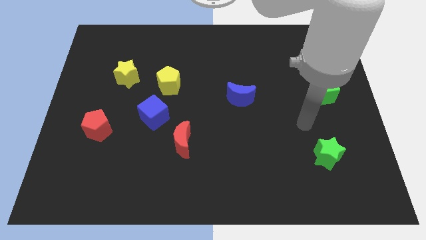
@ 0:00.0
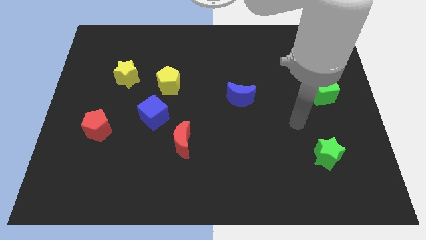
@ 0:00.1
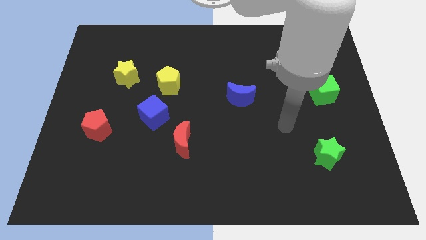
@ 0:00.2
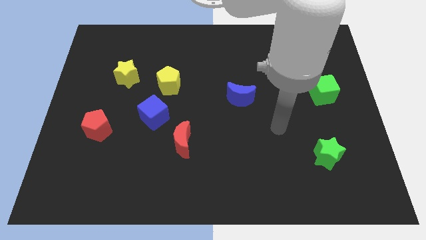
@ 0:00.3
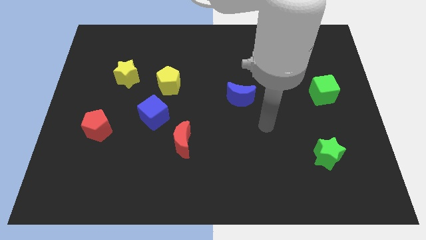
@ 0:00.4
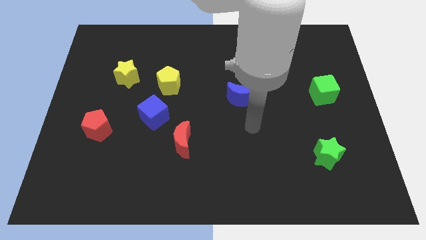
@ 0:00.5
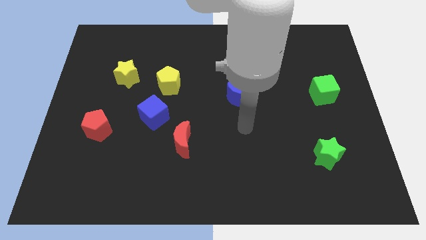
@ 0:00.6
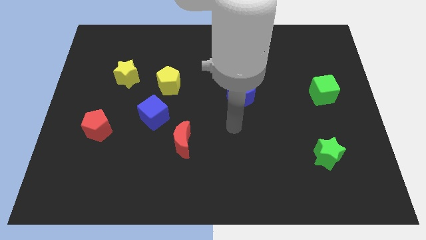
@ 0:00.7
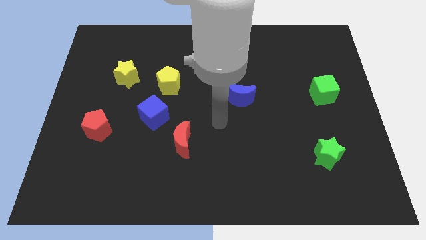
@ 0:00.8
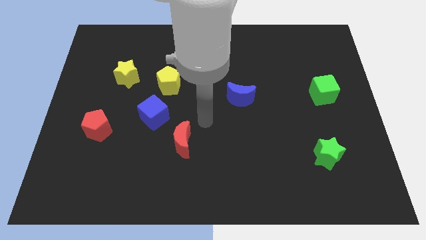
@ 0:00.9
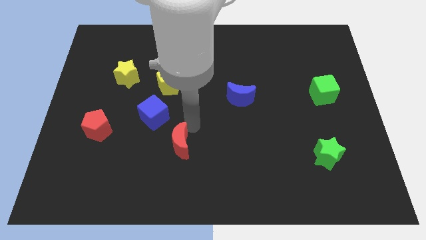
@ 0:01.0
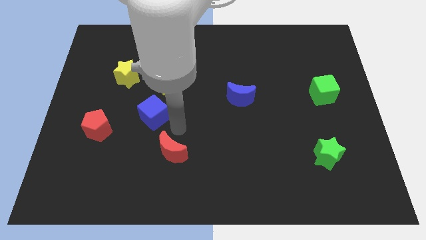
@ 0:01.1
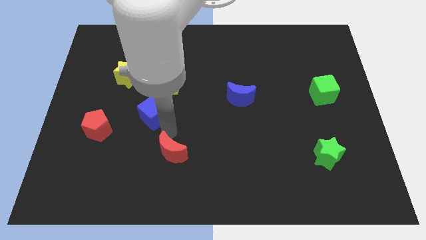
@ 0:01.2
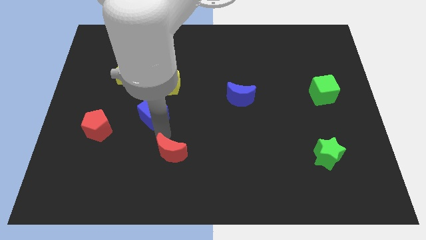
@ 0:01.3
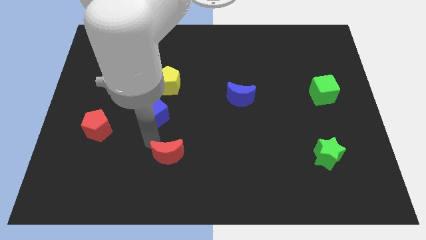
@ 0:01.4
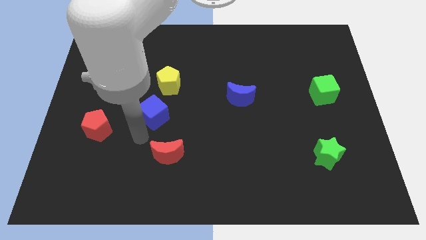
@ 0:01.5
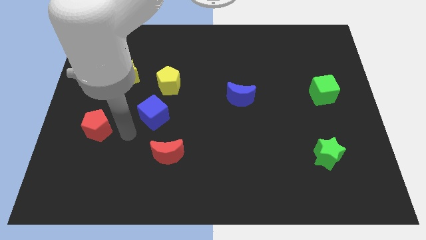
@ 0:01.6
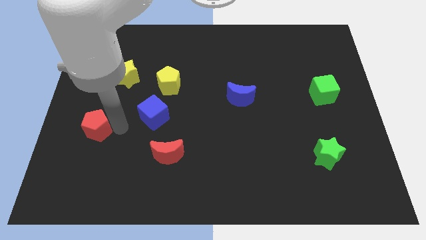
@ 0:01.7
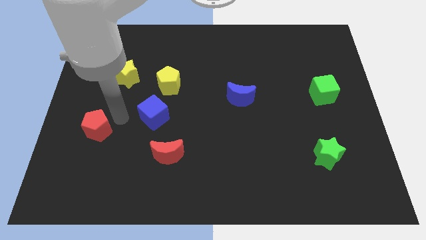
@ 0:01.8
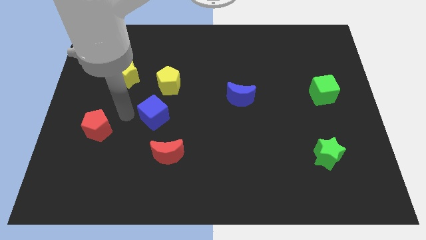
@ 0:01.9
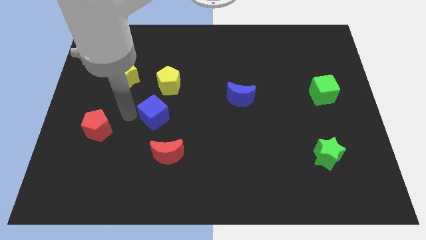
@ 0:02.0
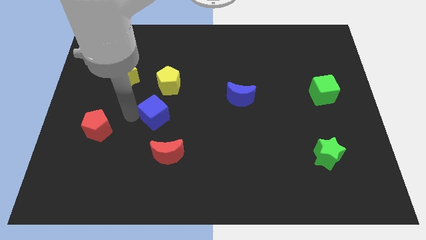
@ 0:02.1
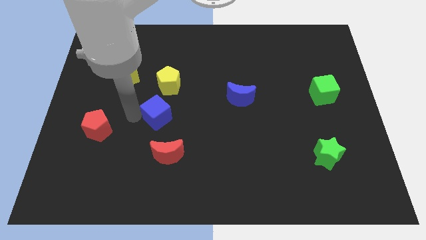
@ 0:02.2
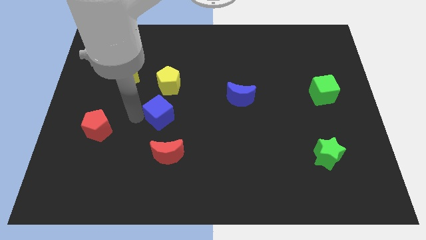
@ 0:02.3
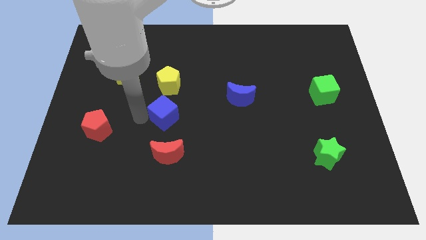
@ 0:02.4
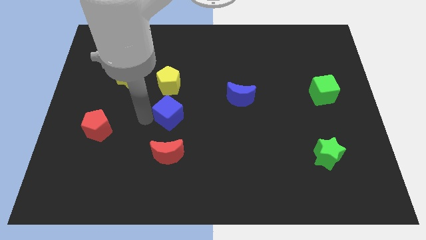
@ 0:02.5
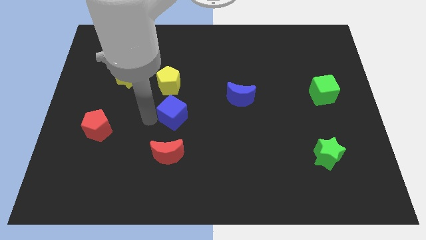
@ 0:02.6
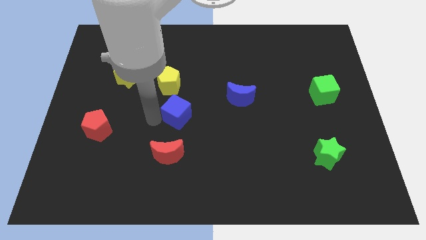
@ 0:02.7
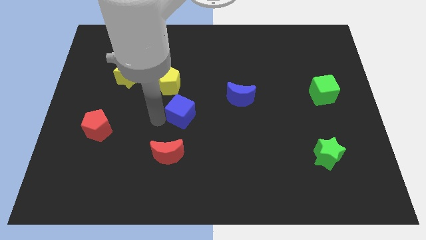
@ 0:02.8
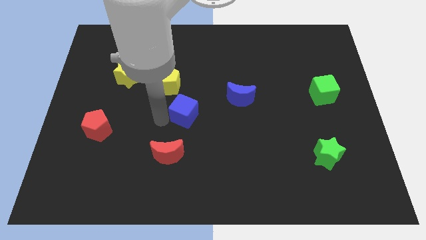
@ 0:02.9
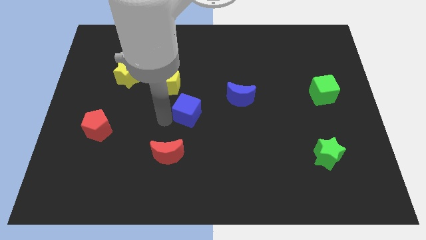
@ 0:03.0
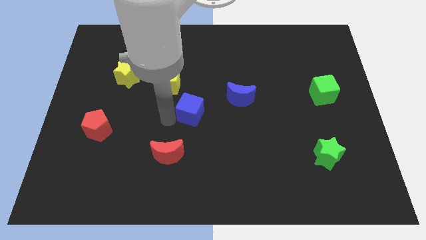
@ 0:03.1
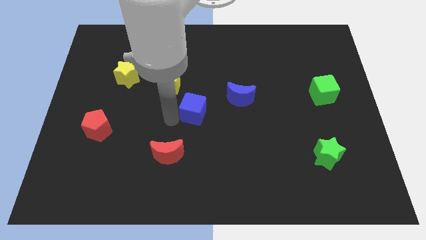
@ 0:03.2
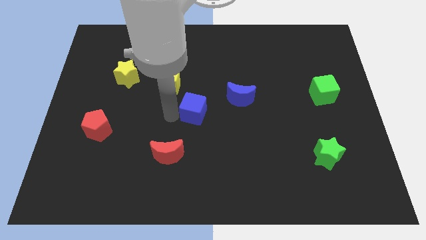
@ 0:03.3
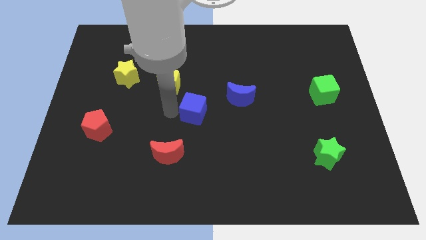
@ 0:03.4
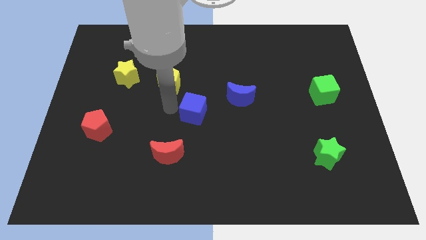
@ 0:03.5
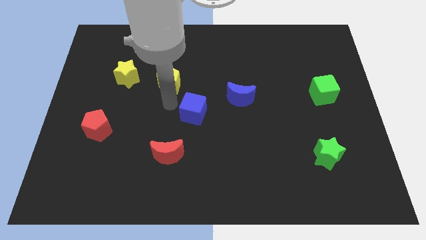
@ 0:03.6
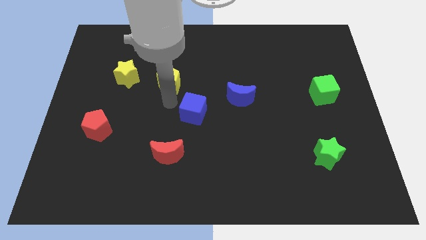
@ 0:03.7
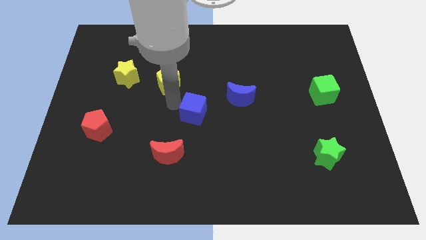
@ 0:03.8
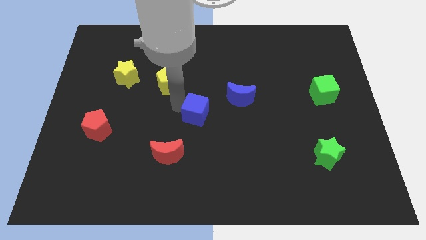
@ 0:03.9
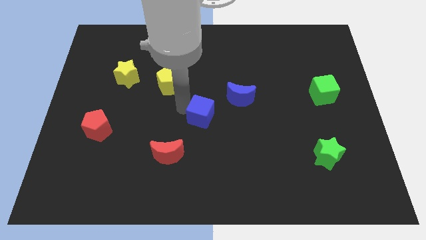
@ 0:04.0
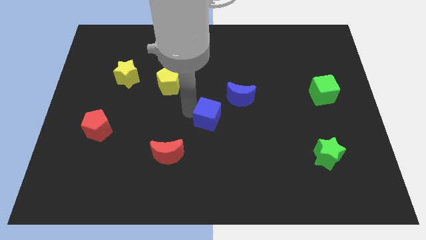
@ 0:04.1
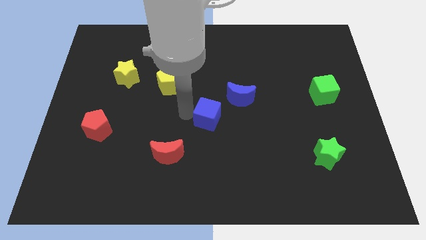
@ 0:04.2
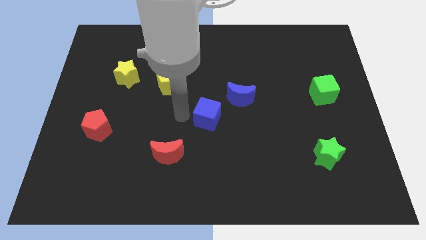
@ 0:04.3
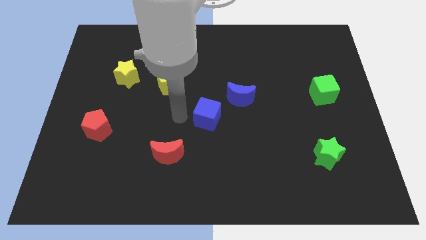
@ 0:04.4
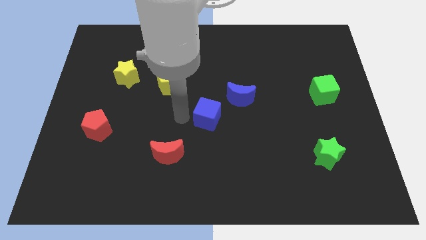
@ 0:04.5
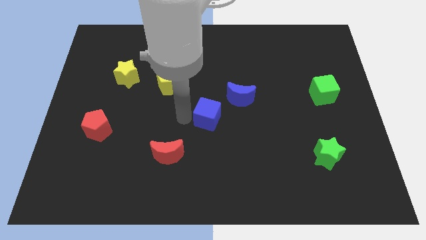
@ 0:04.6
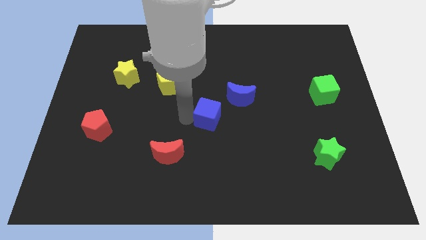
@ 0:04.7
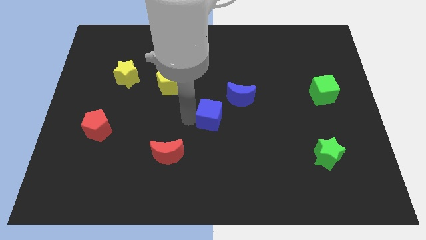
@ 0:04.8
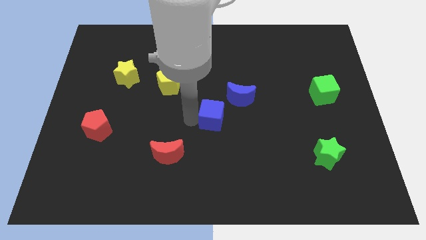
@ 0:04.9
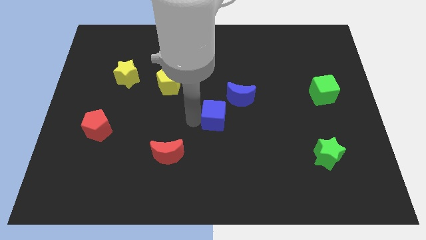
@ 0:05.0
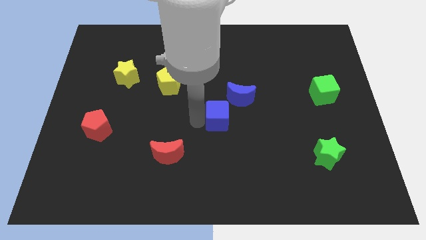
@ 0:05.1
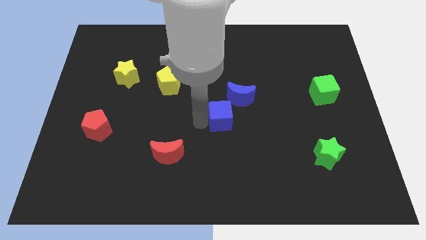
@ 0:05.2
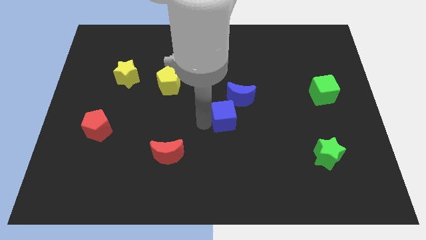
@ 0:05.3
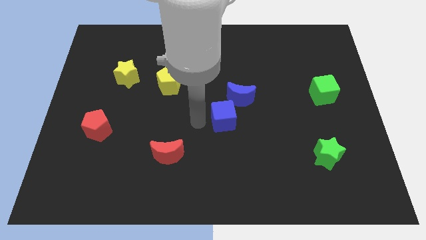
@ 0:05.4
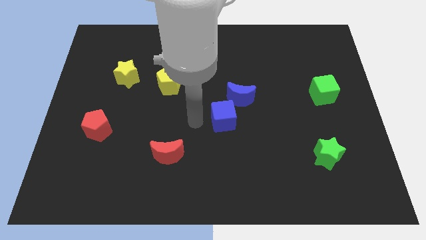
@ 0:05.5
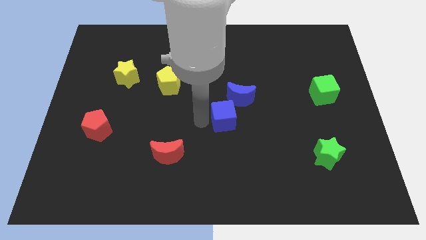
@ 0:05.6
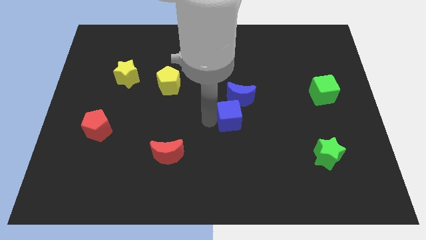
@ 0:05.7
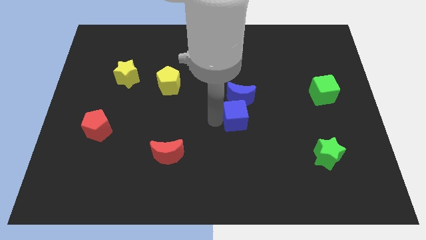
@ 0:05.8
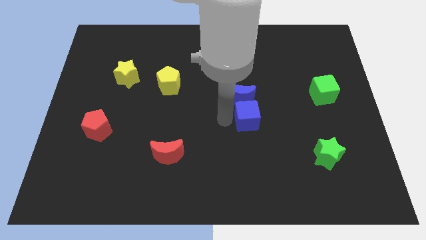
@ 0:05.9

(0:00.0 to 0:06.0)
push the blue cube right

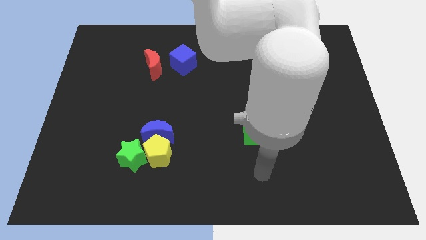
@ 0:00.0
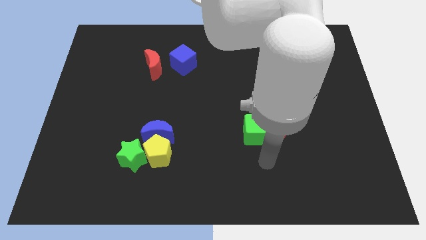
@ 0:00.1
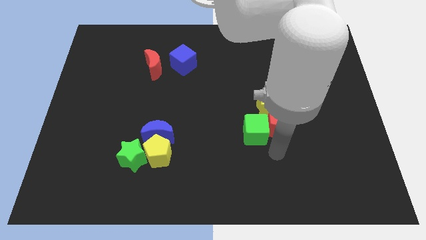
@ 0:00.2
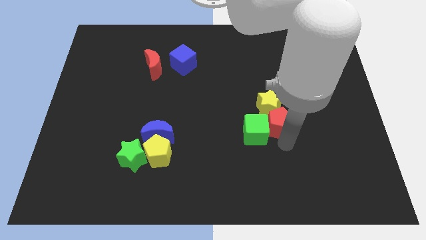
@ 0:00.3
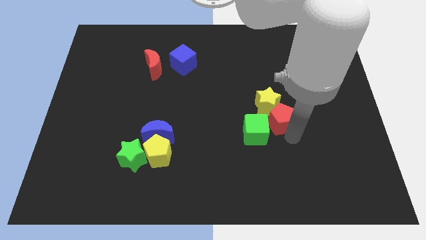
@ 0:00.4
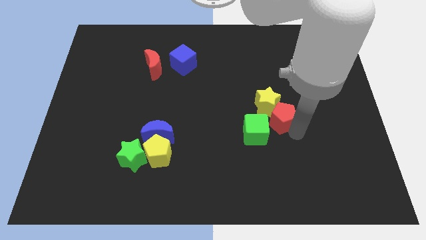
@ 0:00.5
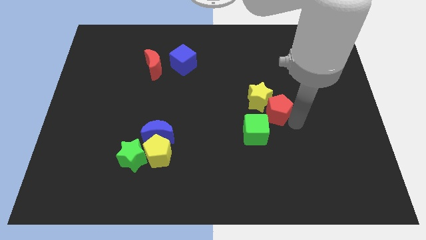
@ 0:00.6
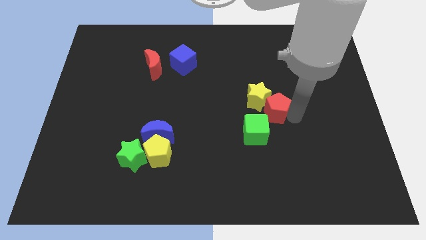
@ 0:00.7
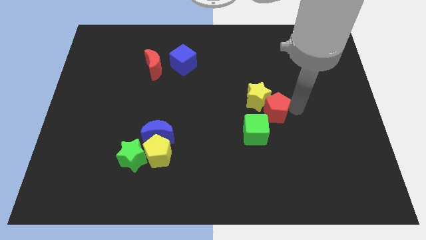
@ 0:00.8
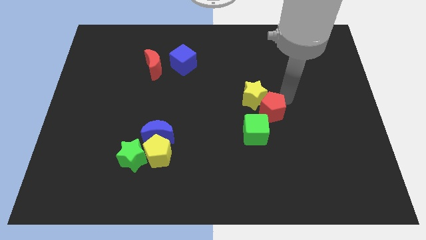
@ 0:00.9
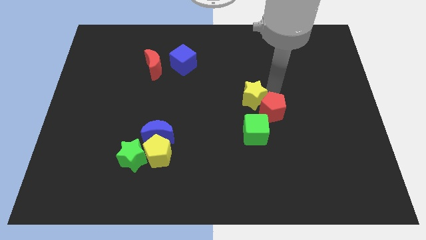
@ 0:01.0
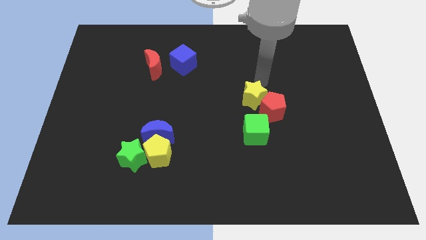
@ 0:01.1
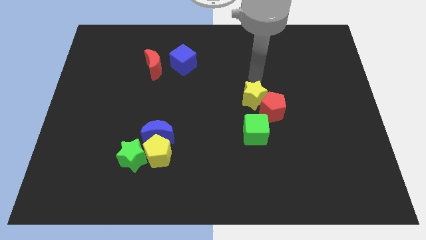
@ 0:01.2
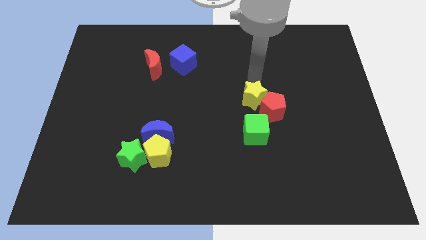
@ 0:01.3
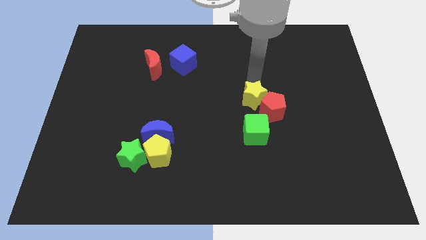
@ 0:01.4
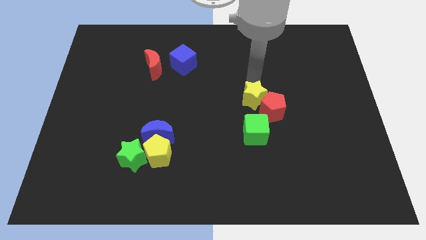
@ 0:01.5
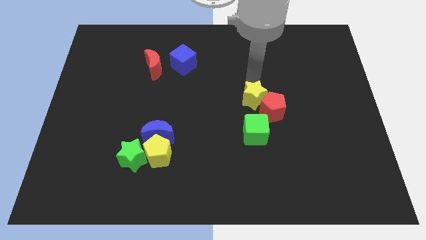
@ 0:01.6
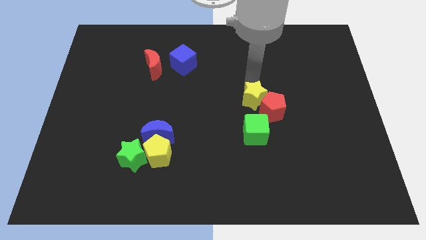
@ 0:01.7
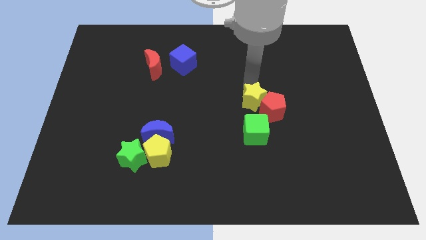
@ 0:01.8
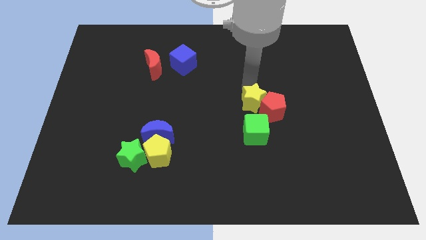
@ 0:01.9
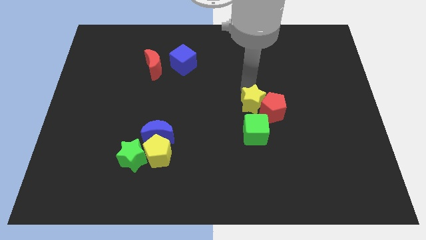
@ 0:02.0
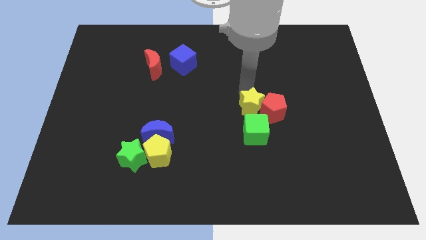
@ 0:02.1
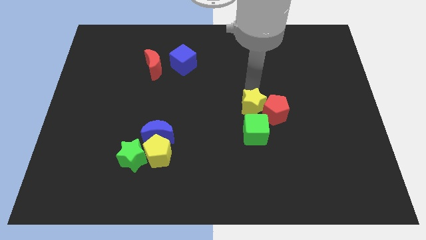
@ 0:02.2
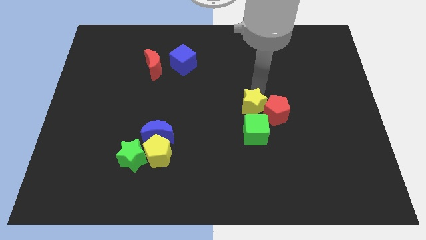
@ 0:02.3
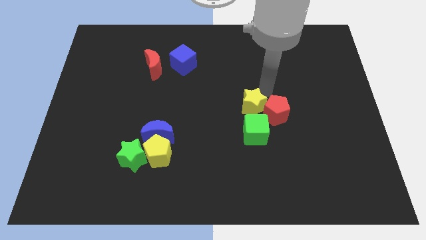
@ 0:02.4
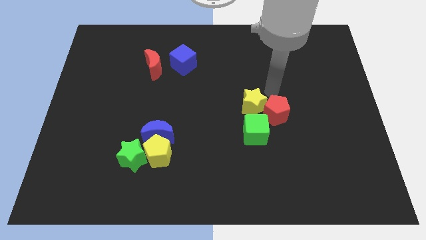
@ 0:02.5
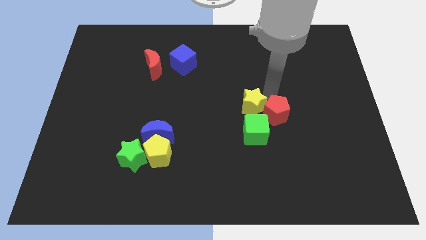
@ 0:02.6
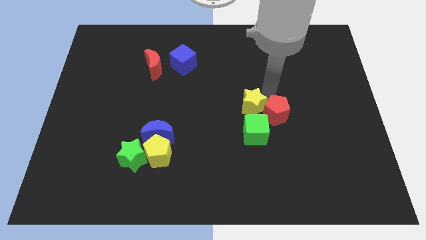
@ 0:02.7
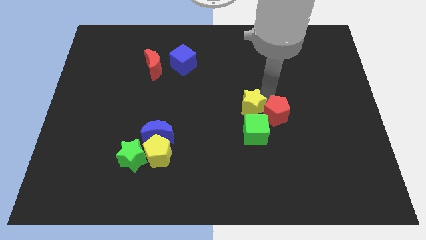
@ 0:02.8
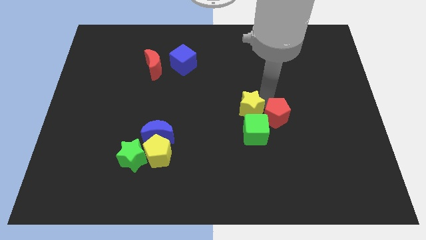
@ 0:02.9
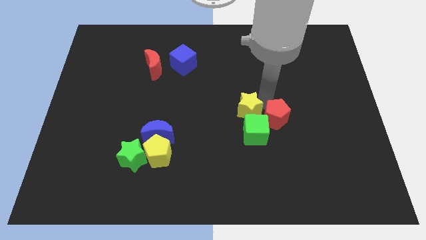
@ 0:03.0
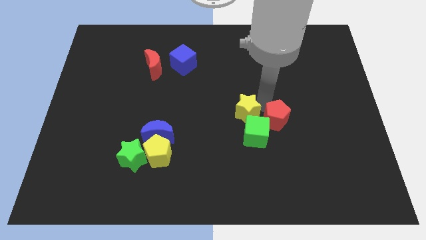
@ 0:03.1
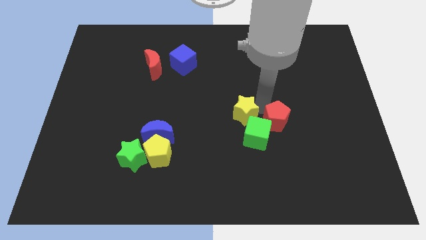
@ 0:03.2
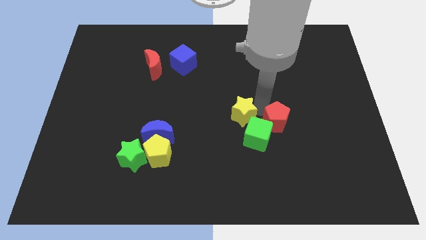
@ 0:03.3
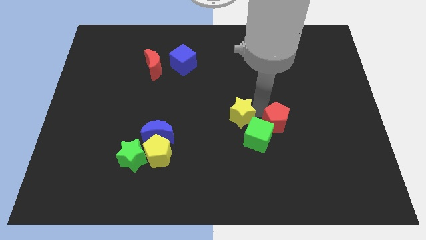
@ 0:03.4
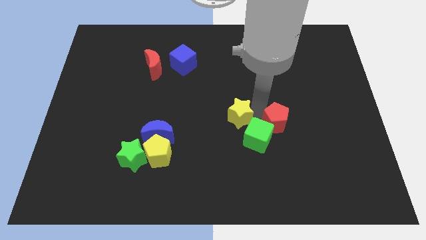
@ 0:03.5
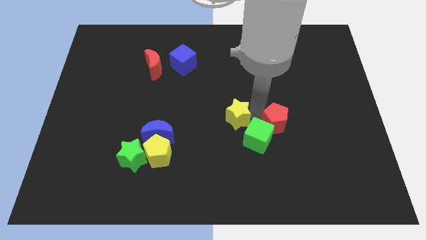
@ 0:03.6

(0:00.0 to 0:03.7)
slide the yellow star a little downwards and to the left
